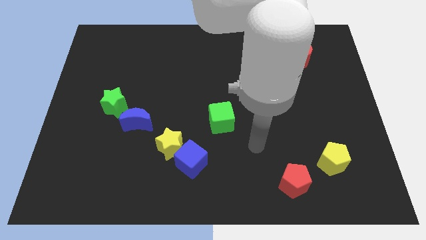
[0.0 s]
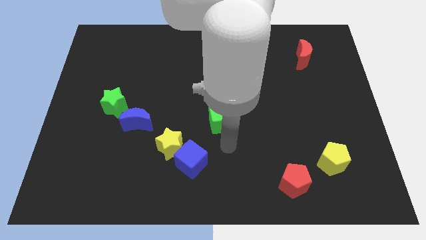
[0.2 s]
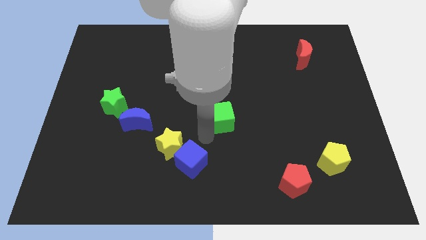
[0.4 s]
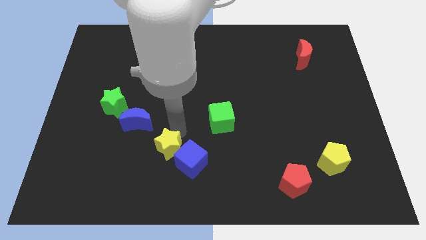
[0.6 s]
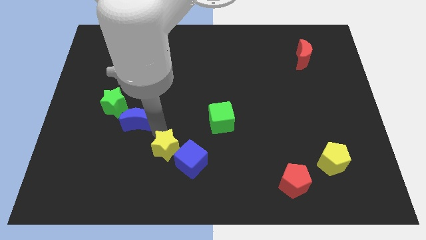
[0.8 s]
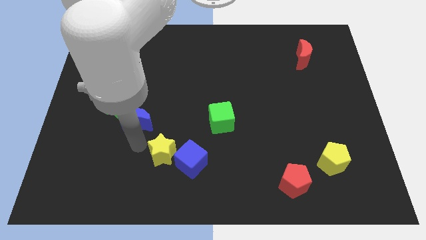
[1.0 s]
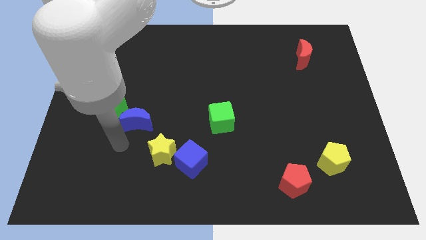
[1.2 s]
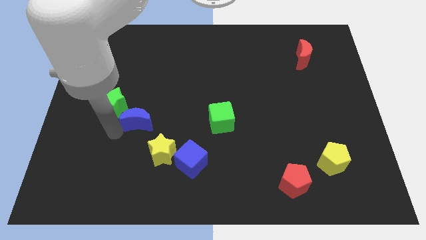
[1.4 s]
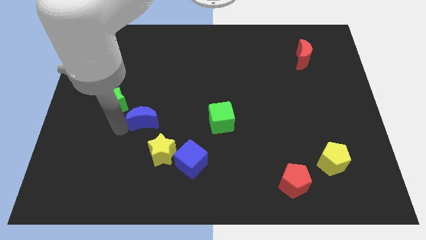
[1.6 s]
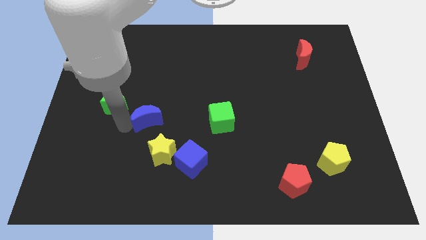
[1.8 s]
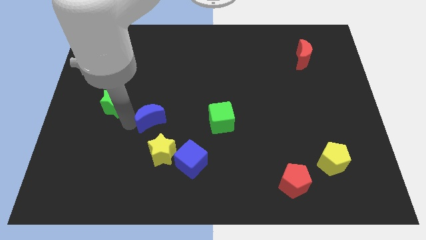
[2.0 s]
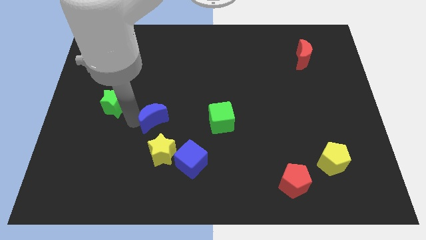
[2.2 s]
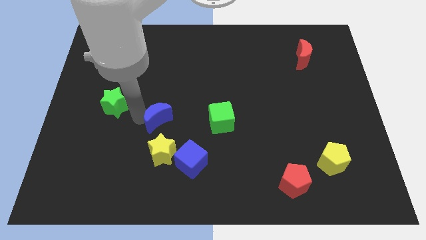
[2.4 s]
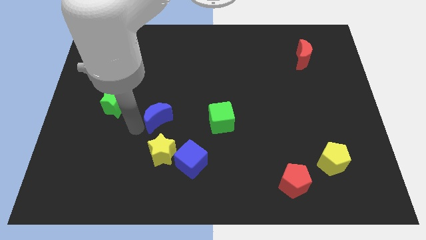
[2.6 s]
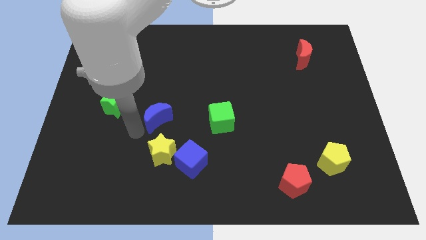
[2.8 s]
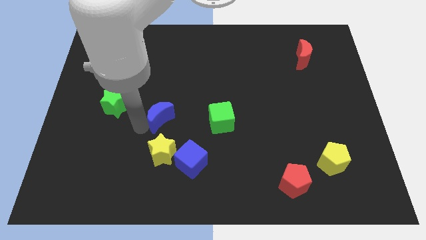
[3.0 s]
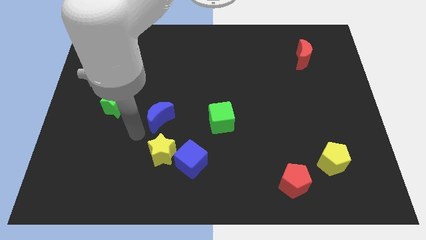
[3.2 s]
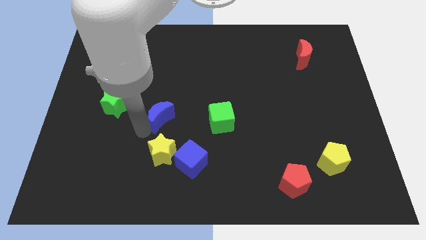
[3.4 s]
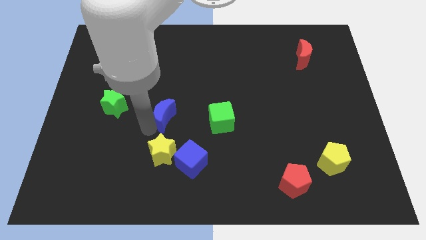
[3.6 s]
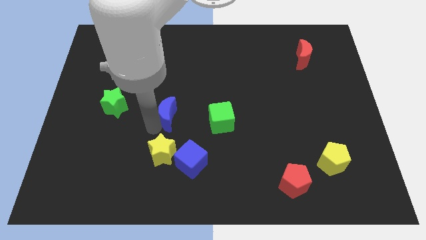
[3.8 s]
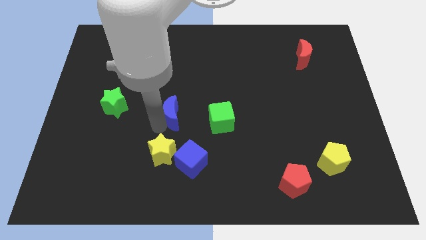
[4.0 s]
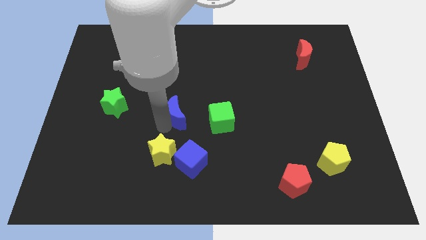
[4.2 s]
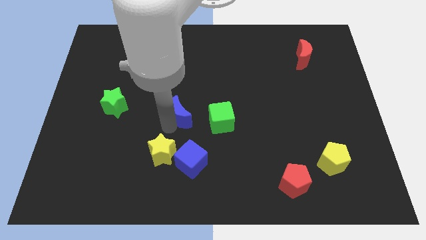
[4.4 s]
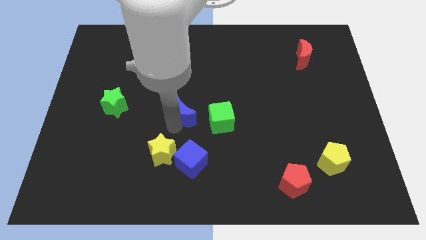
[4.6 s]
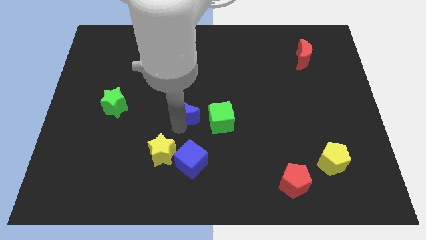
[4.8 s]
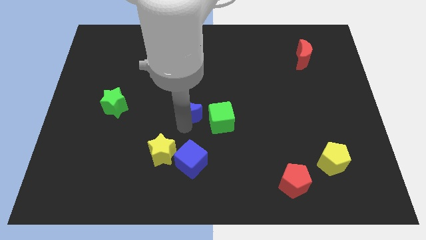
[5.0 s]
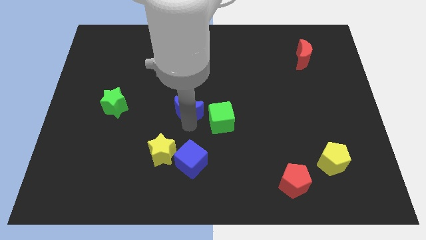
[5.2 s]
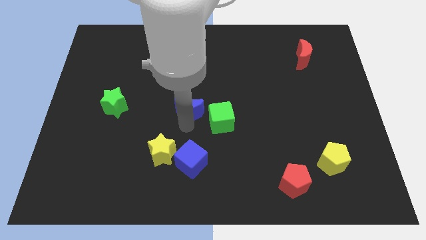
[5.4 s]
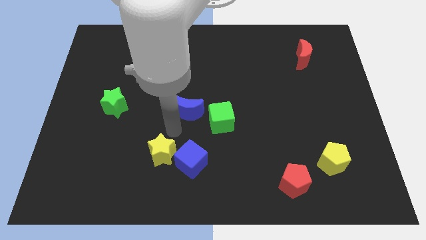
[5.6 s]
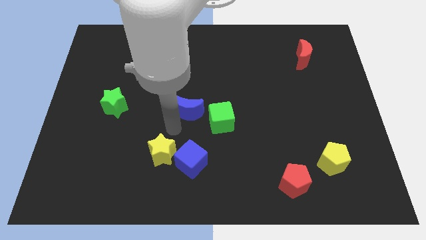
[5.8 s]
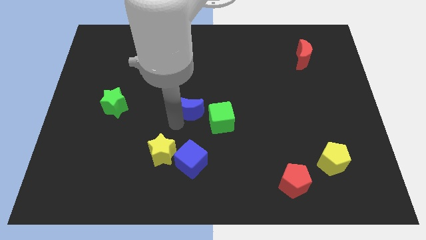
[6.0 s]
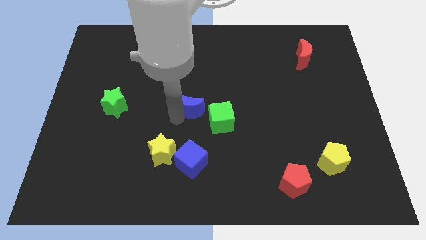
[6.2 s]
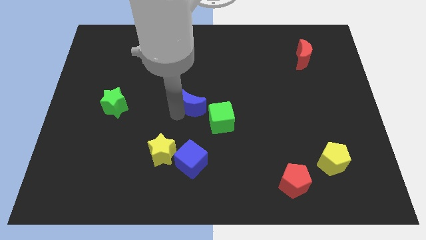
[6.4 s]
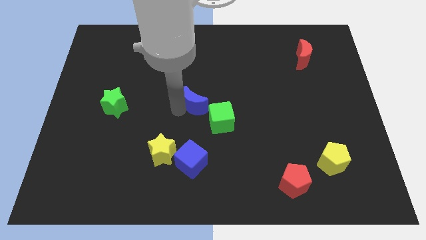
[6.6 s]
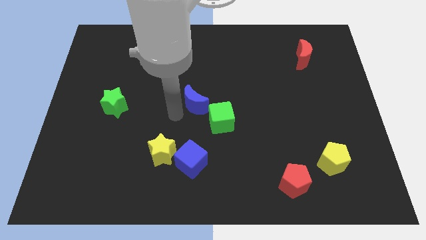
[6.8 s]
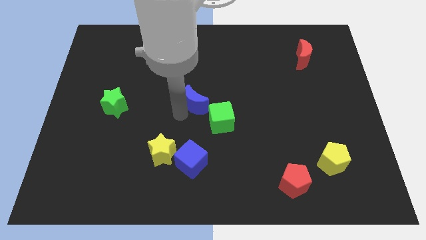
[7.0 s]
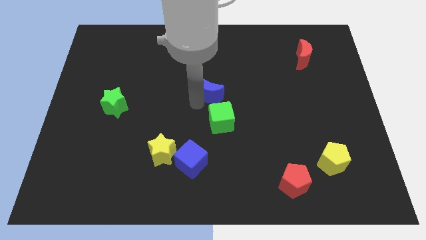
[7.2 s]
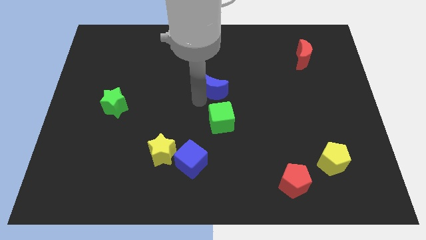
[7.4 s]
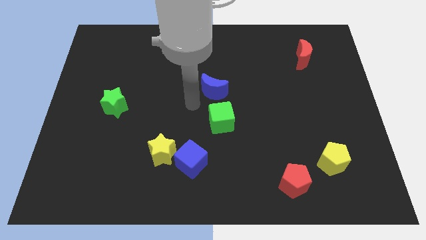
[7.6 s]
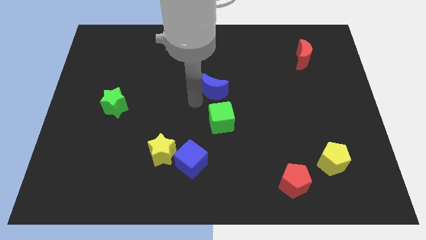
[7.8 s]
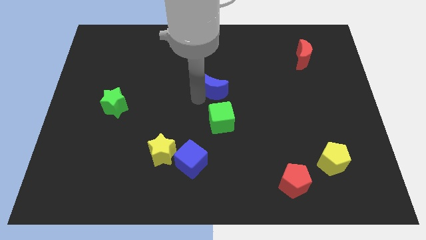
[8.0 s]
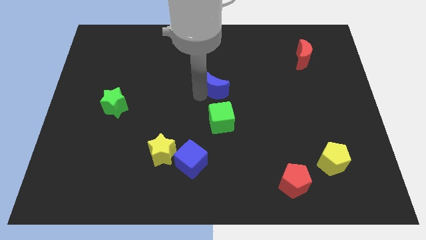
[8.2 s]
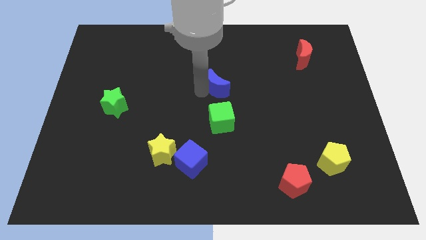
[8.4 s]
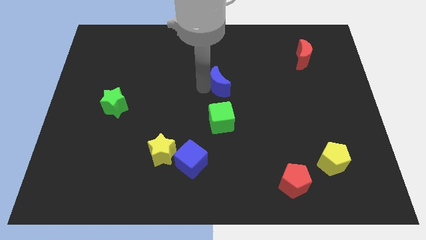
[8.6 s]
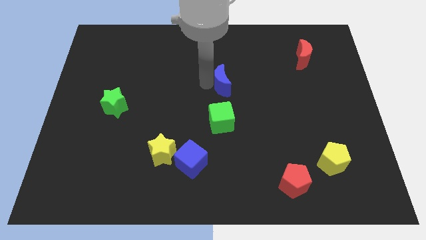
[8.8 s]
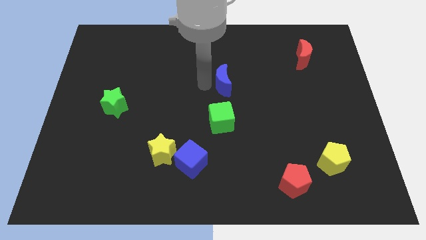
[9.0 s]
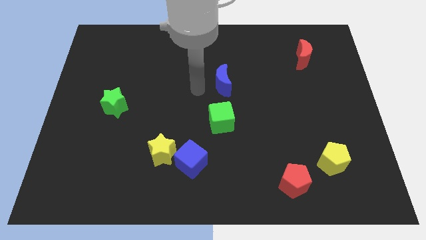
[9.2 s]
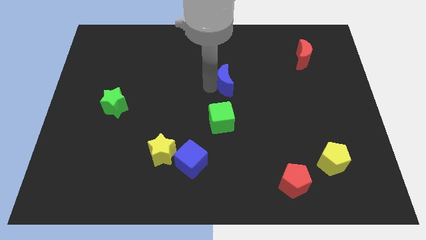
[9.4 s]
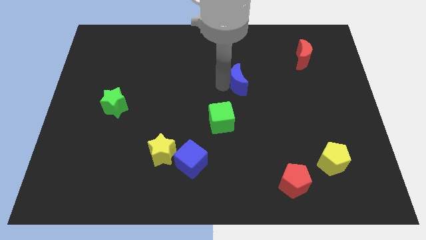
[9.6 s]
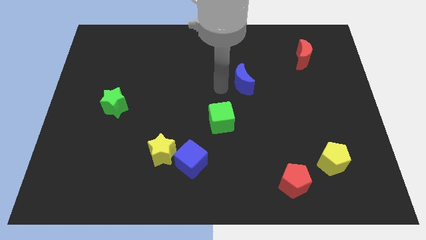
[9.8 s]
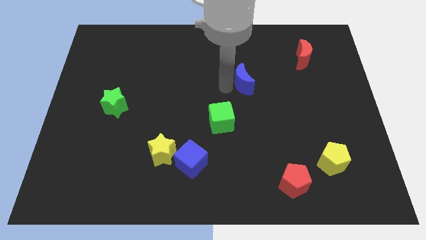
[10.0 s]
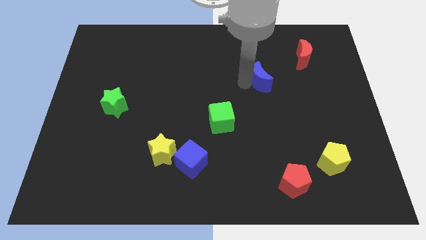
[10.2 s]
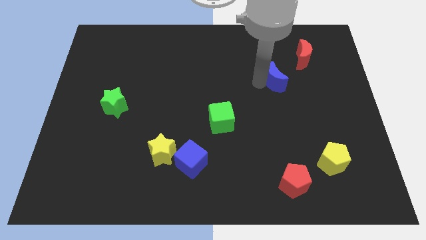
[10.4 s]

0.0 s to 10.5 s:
push the blue moon to the bottom left side of the red moon

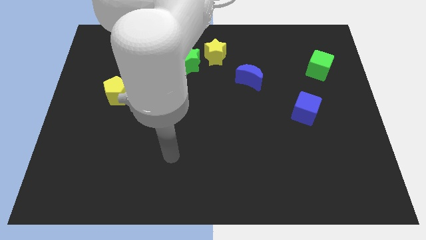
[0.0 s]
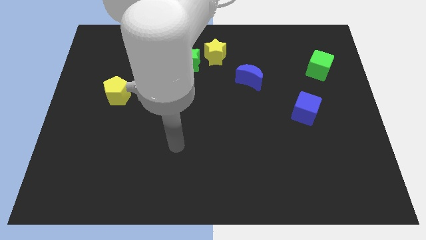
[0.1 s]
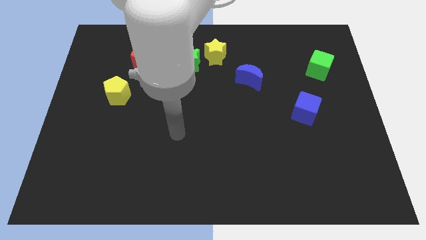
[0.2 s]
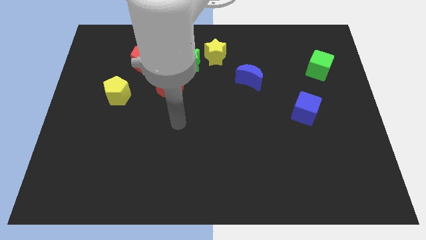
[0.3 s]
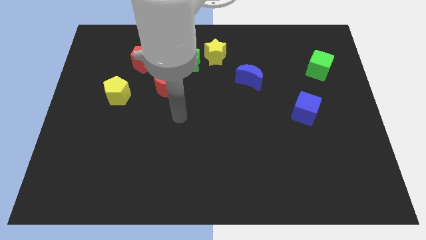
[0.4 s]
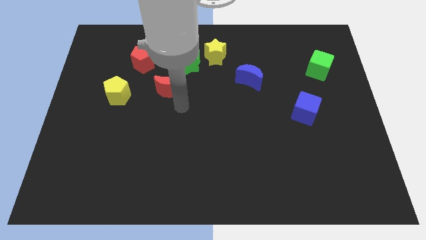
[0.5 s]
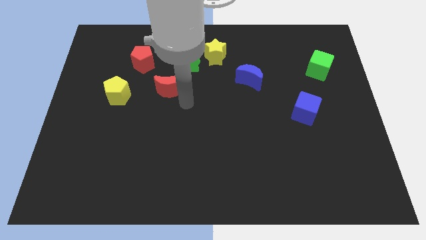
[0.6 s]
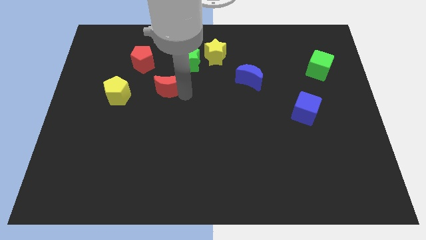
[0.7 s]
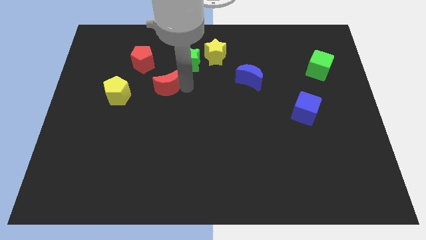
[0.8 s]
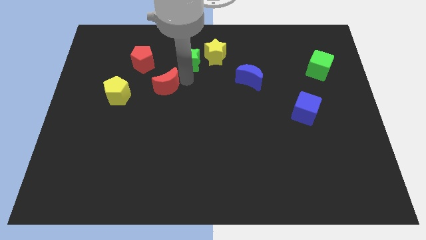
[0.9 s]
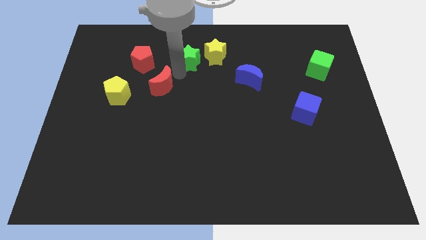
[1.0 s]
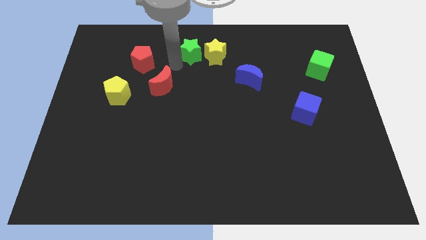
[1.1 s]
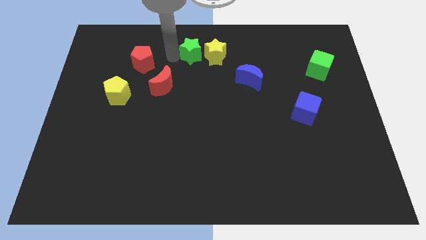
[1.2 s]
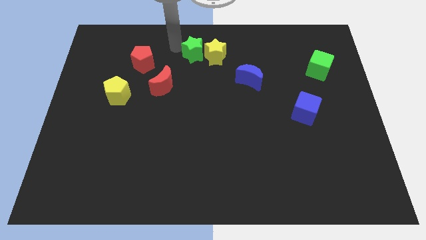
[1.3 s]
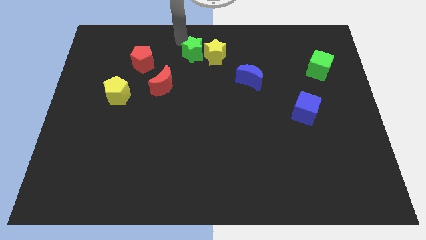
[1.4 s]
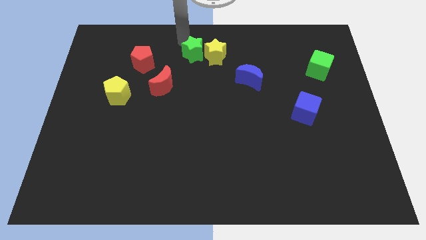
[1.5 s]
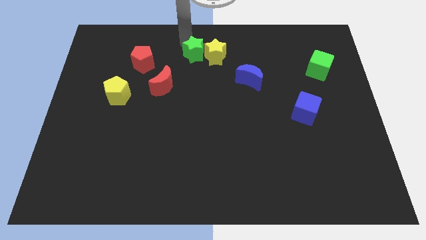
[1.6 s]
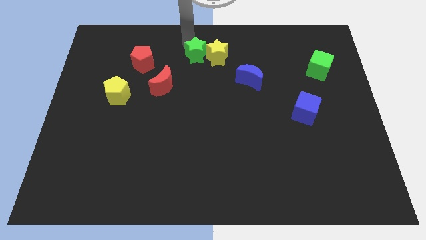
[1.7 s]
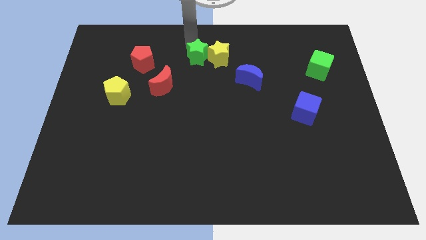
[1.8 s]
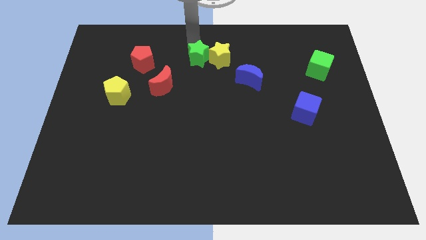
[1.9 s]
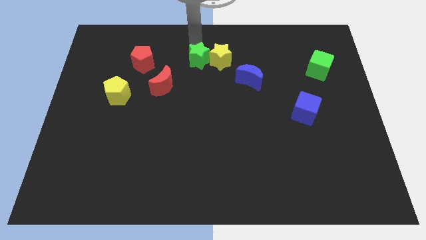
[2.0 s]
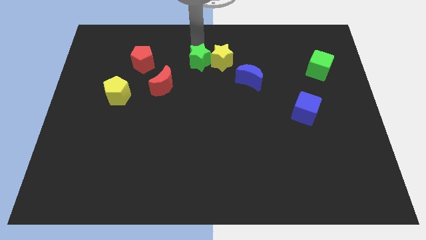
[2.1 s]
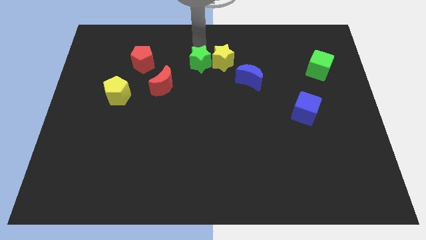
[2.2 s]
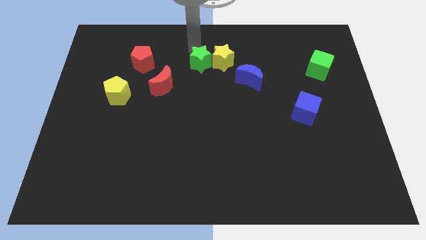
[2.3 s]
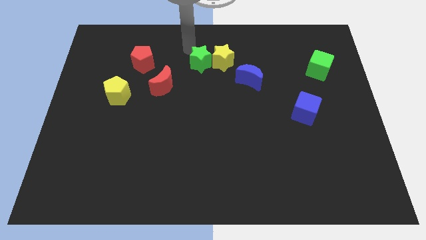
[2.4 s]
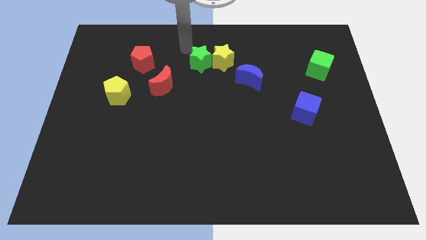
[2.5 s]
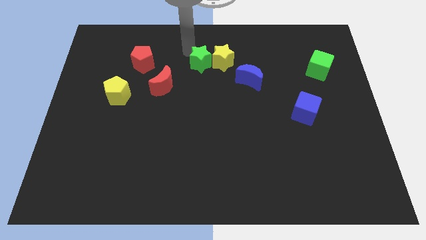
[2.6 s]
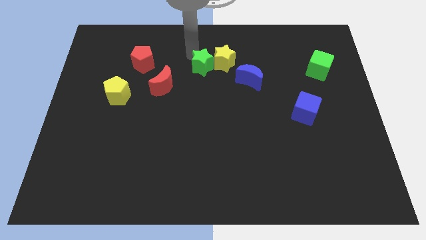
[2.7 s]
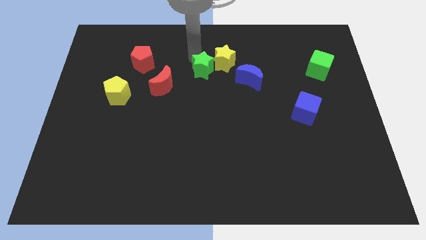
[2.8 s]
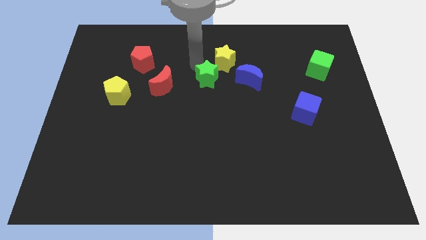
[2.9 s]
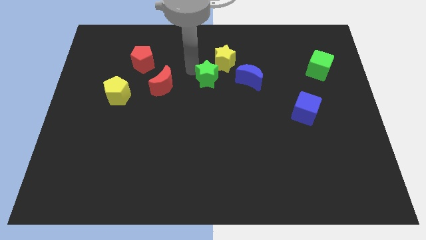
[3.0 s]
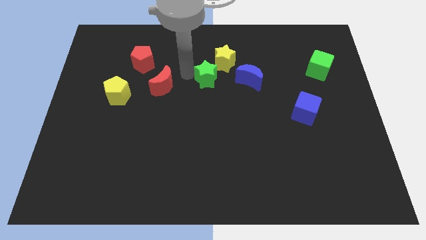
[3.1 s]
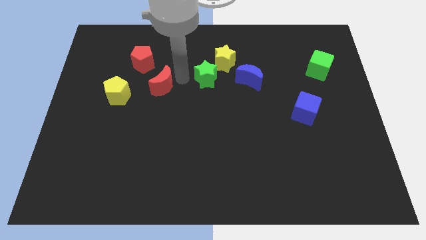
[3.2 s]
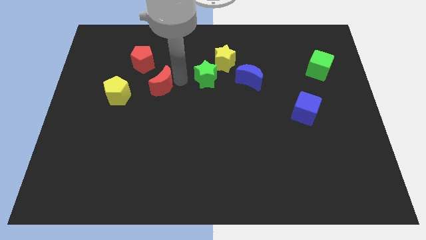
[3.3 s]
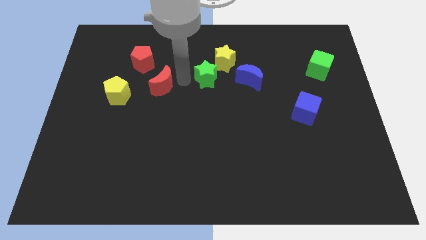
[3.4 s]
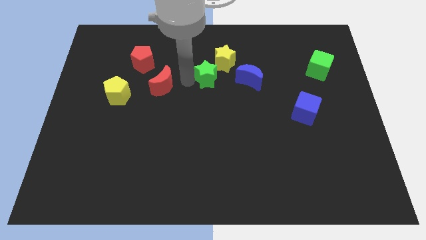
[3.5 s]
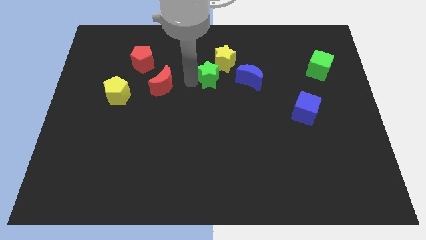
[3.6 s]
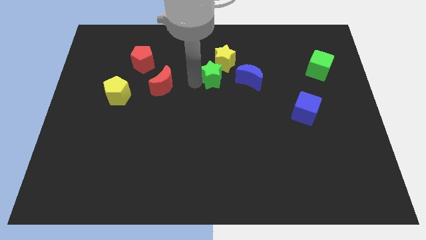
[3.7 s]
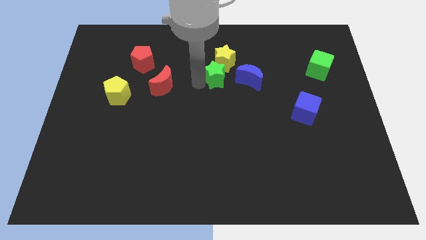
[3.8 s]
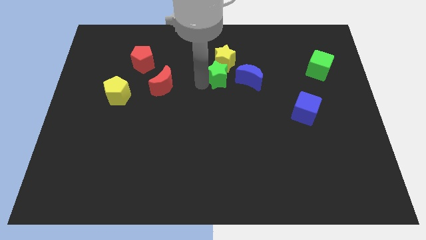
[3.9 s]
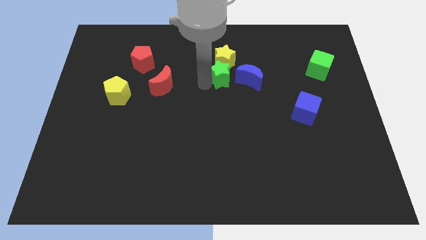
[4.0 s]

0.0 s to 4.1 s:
slide the green star to the bottom right of the yellow star
